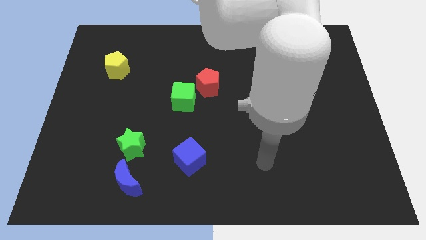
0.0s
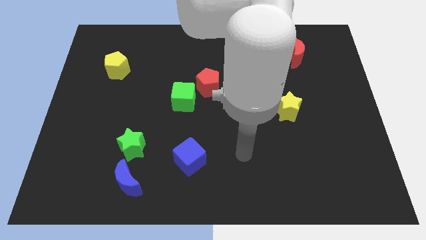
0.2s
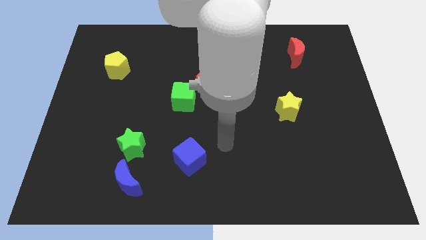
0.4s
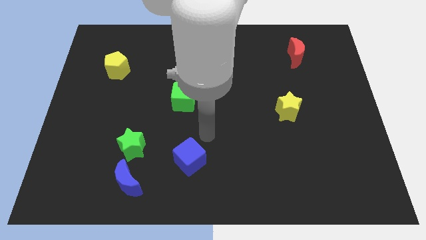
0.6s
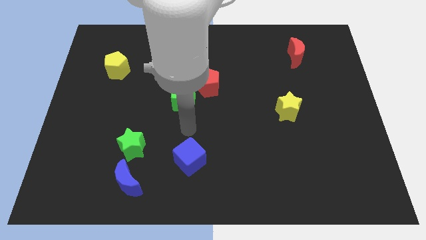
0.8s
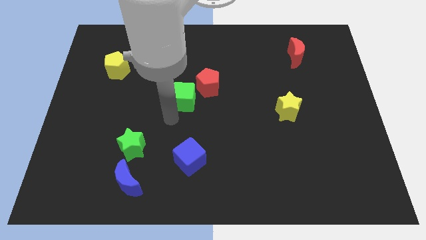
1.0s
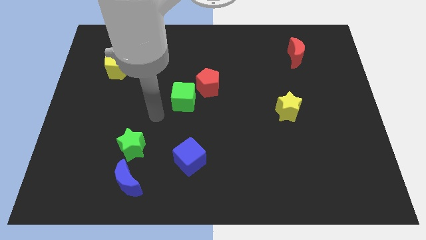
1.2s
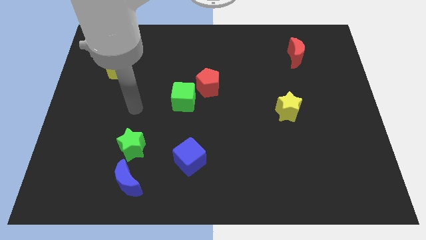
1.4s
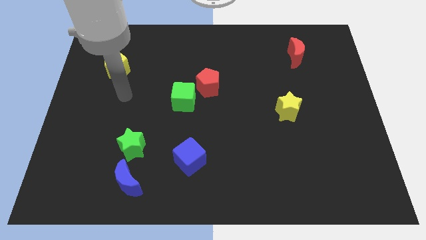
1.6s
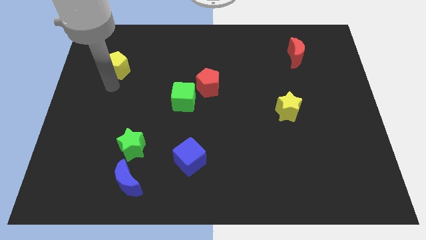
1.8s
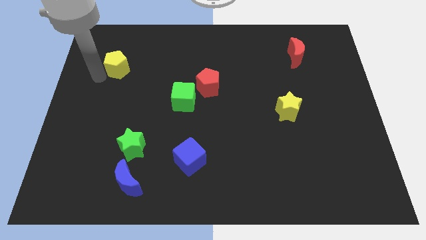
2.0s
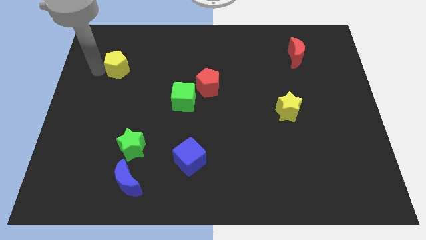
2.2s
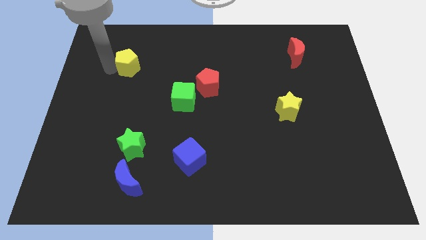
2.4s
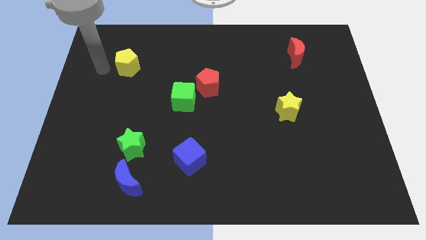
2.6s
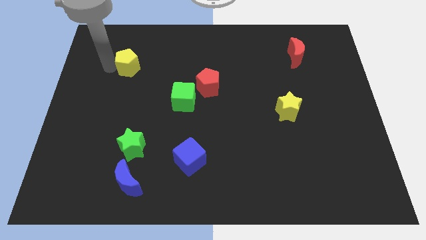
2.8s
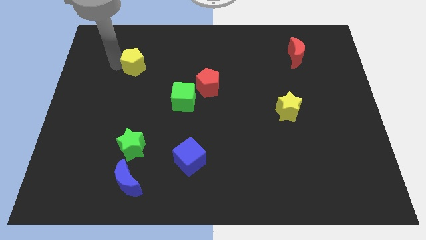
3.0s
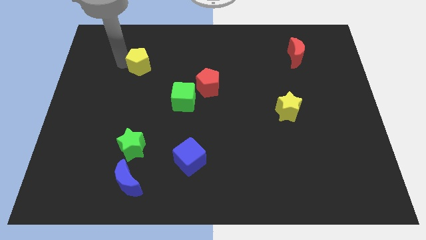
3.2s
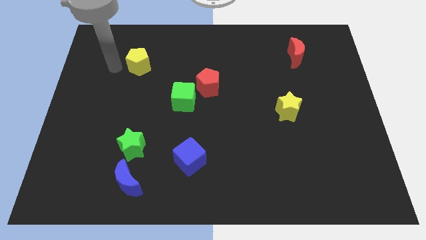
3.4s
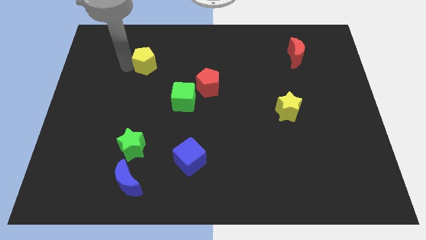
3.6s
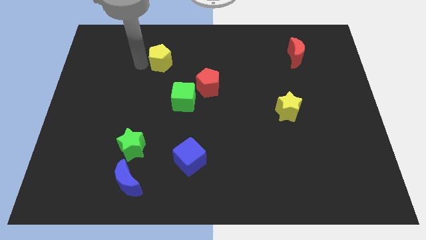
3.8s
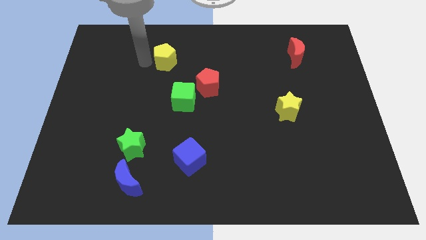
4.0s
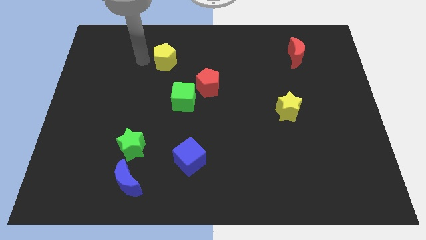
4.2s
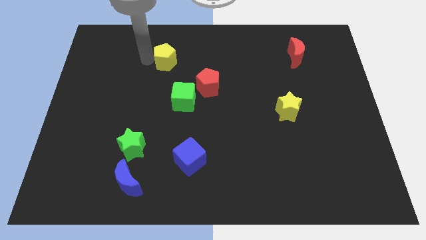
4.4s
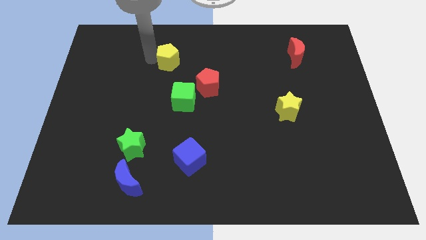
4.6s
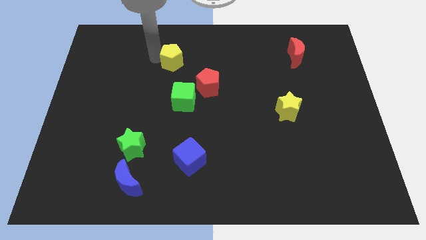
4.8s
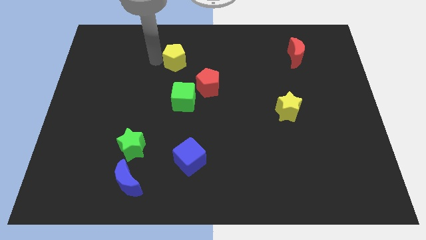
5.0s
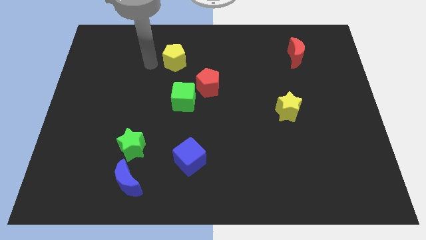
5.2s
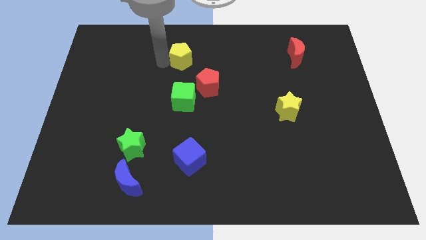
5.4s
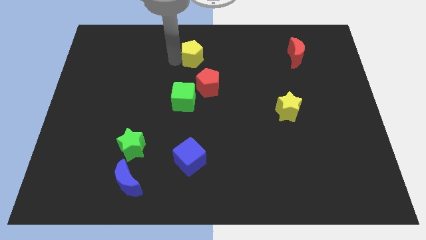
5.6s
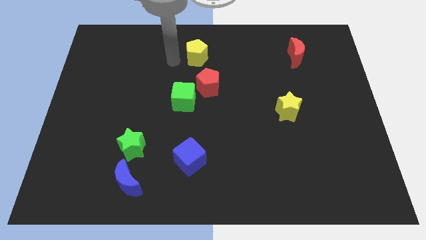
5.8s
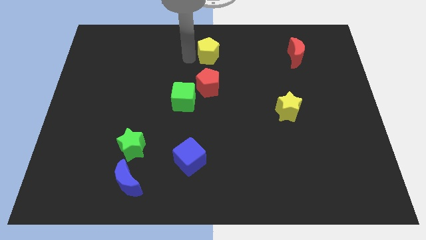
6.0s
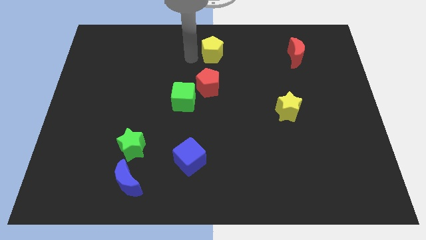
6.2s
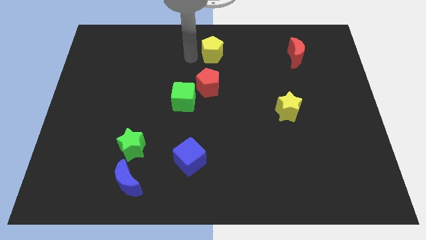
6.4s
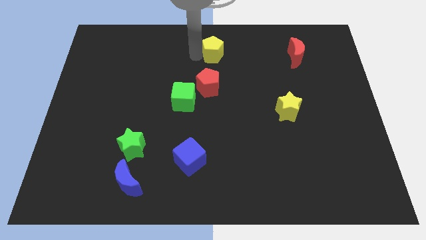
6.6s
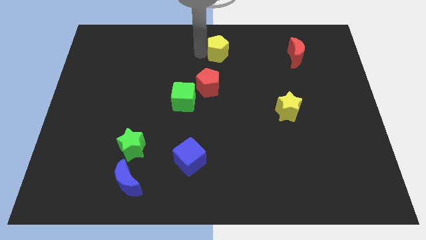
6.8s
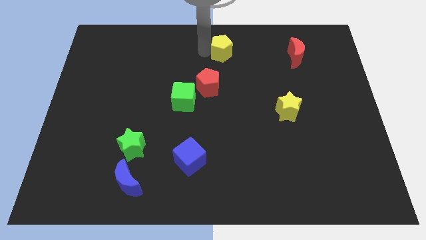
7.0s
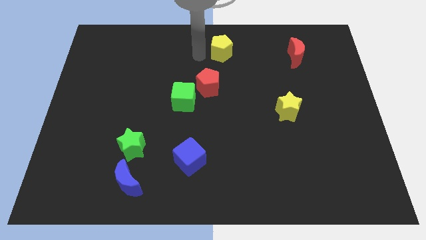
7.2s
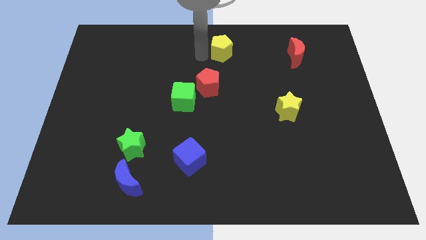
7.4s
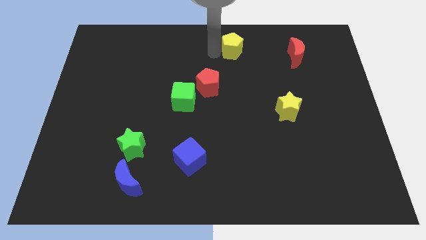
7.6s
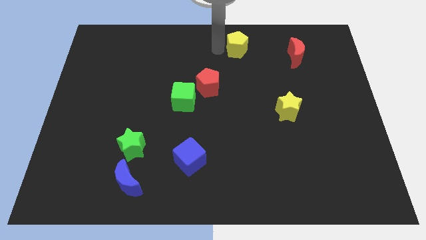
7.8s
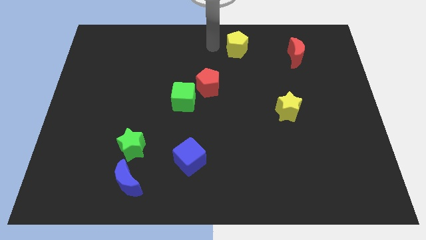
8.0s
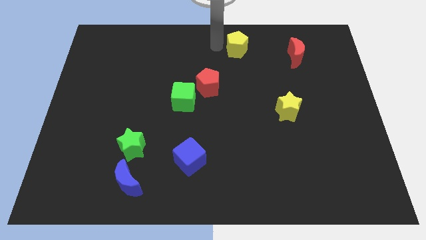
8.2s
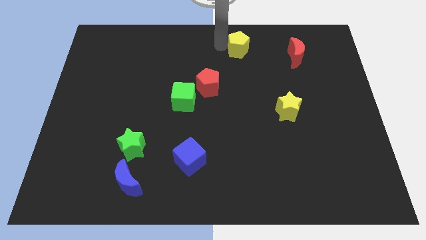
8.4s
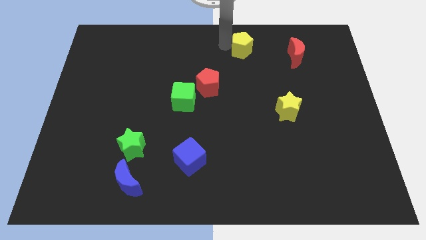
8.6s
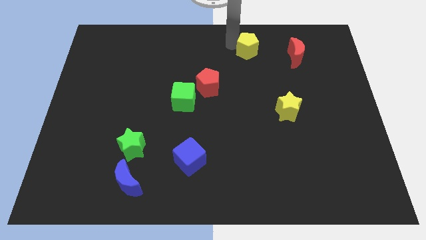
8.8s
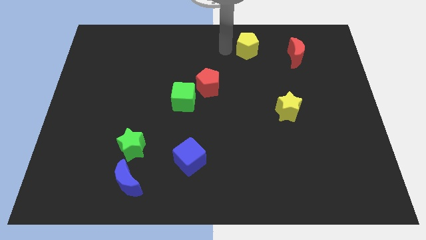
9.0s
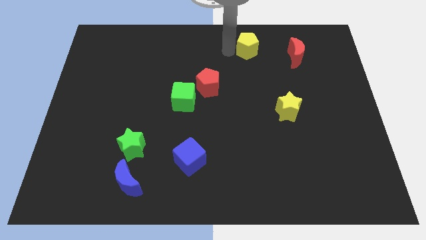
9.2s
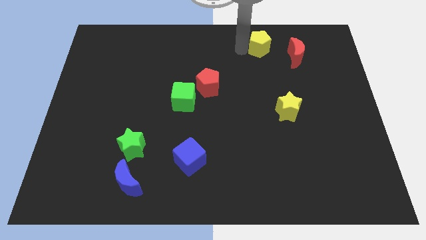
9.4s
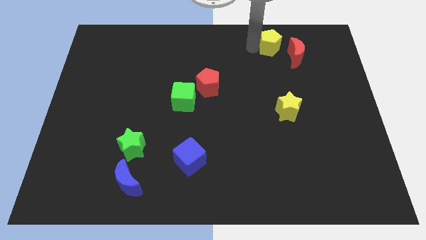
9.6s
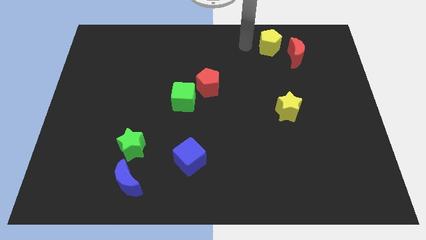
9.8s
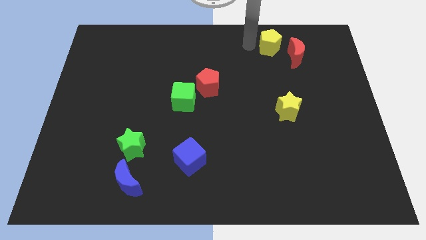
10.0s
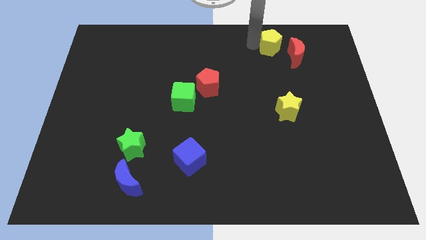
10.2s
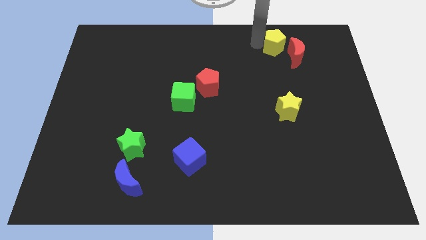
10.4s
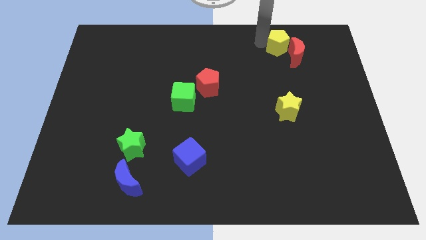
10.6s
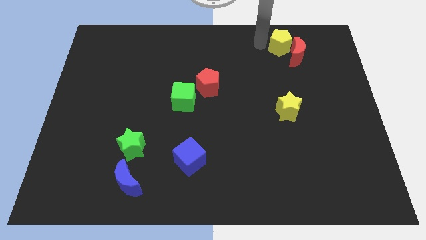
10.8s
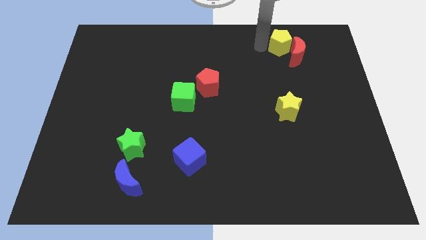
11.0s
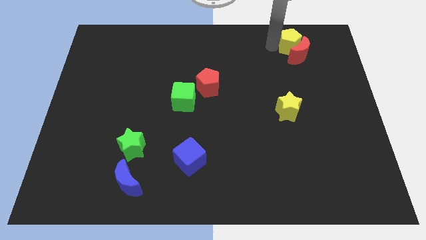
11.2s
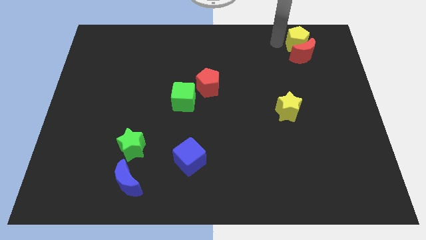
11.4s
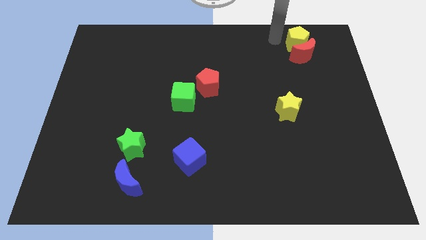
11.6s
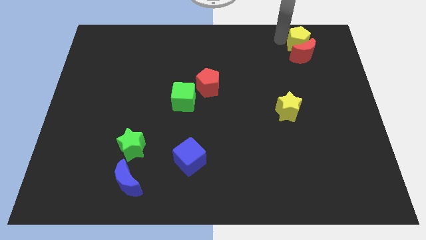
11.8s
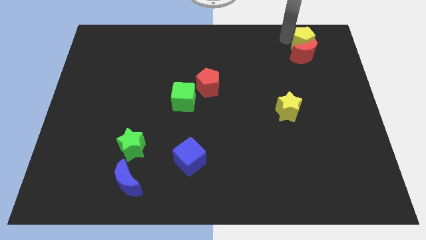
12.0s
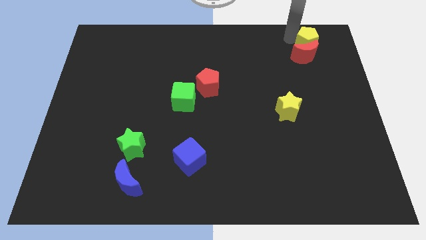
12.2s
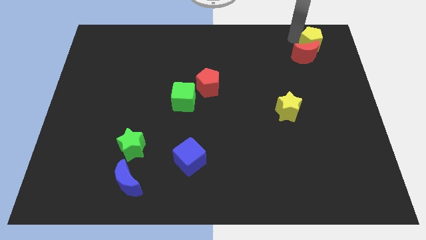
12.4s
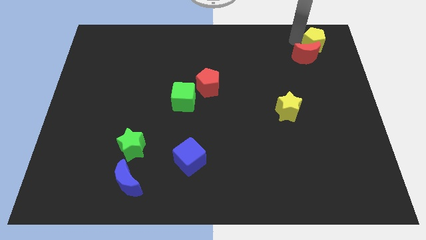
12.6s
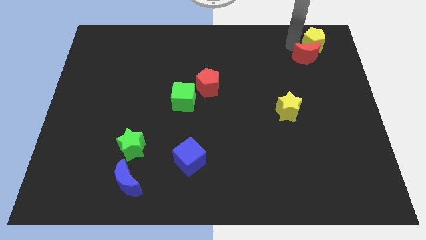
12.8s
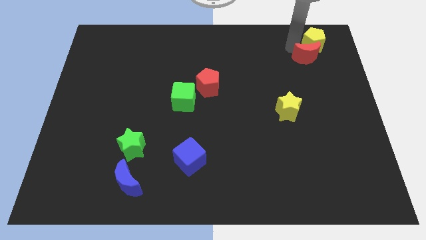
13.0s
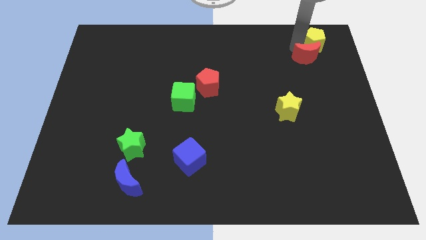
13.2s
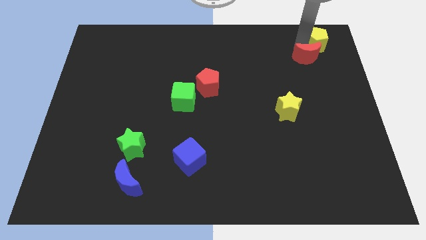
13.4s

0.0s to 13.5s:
put the yellow pentagon to the top right of the board
